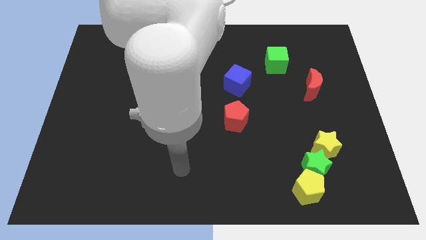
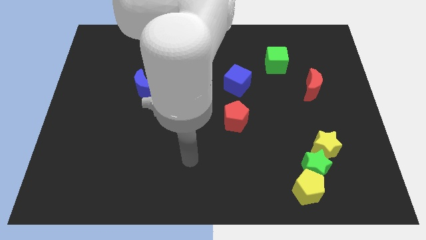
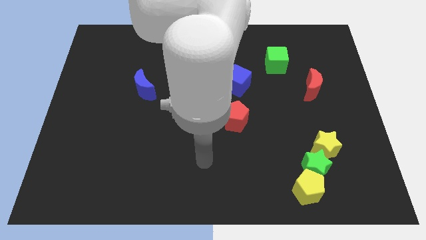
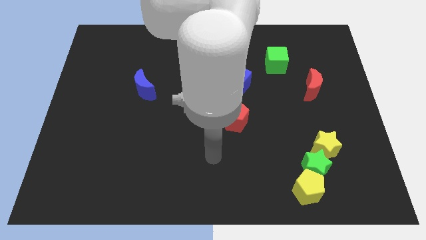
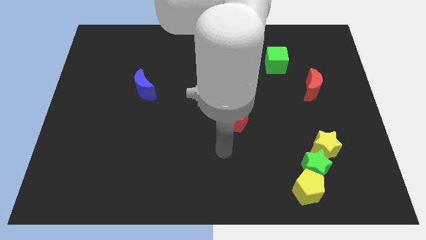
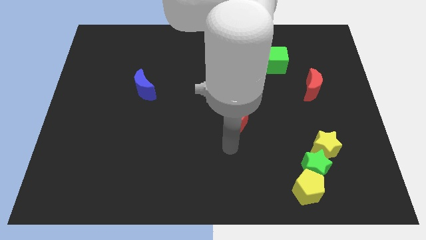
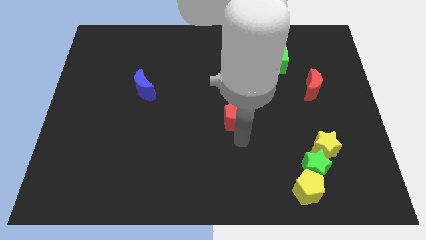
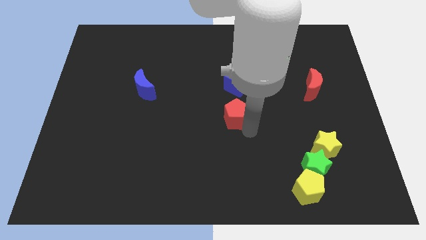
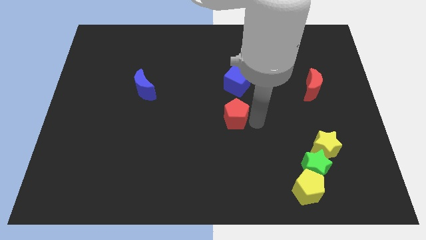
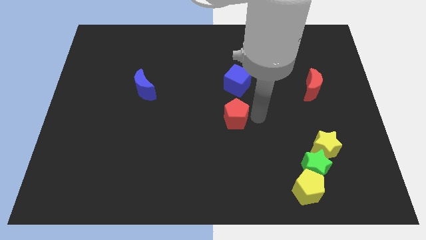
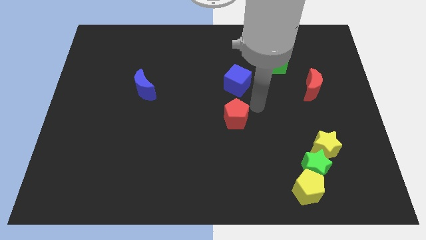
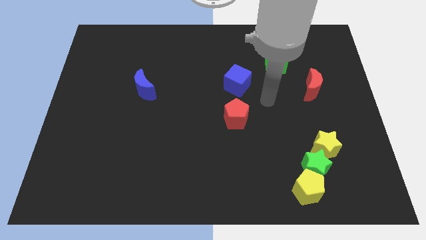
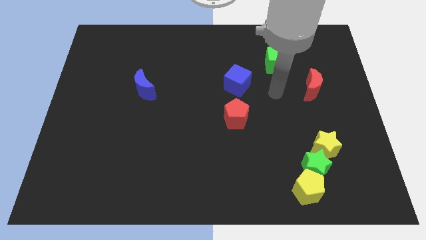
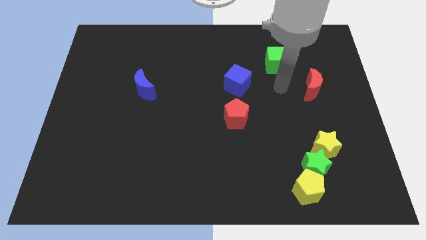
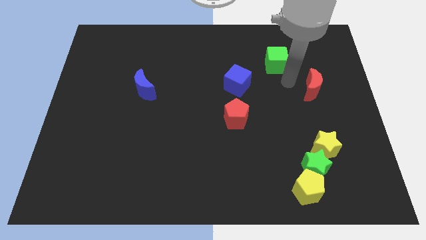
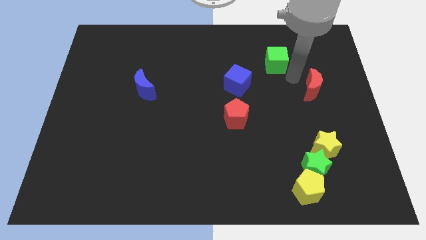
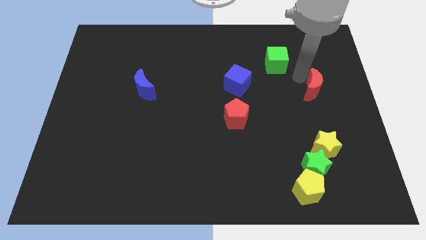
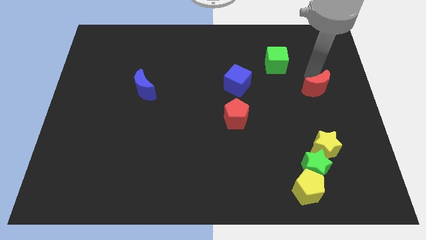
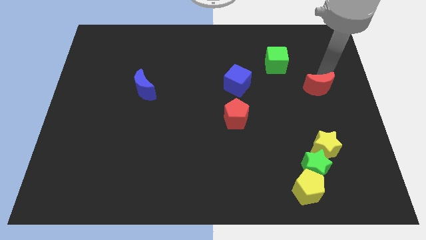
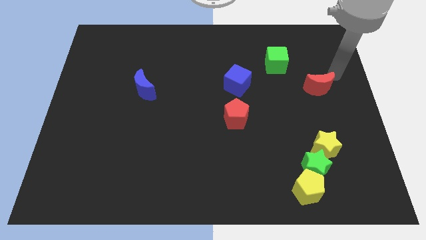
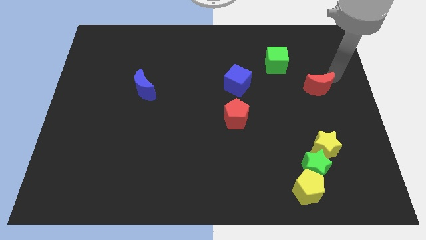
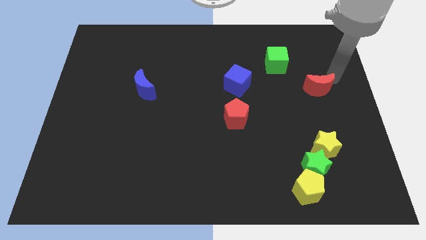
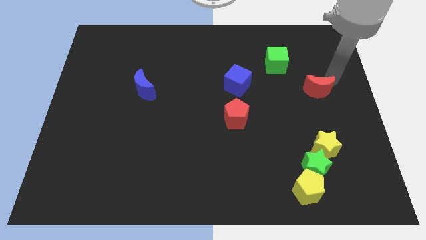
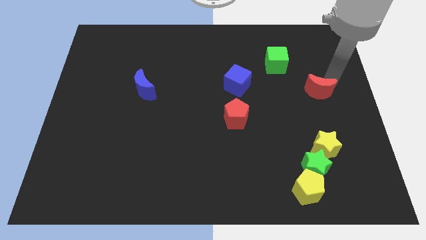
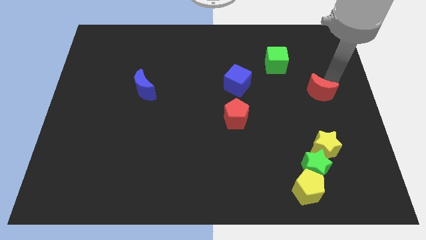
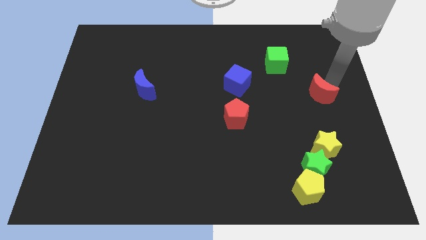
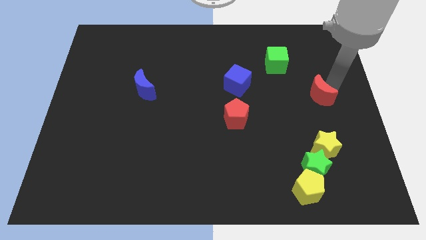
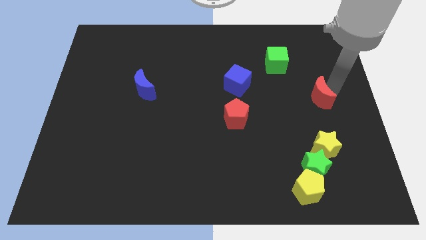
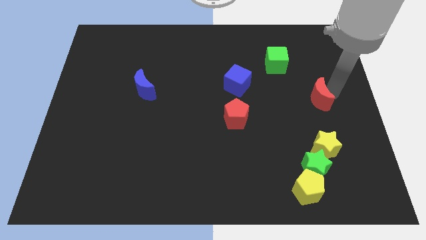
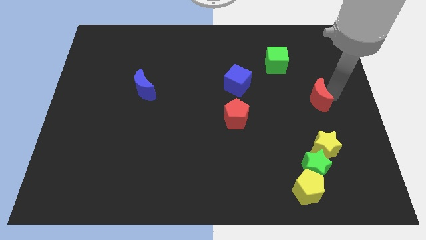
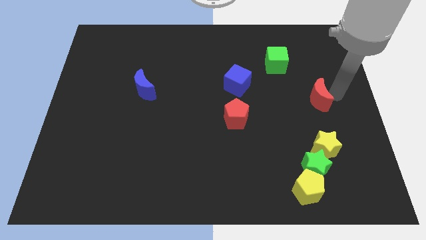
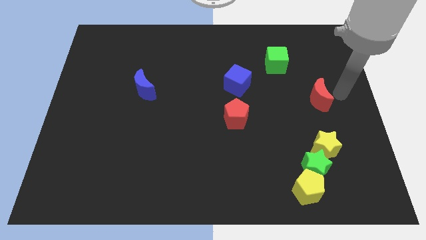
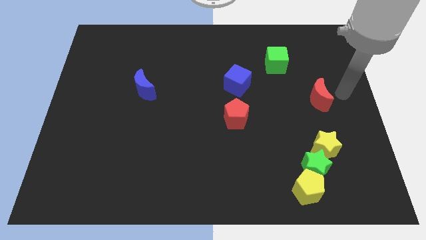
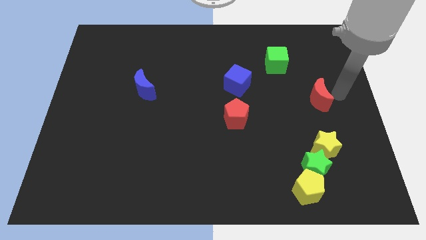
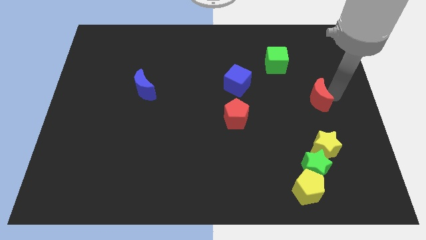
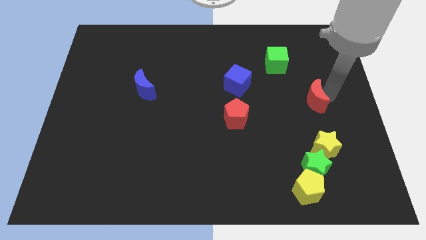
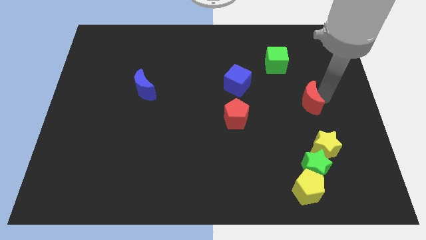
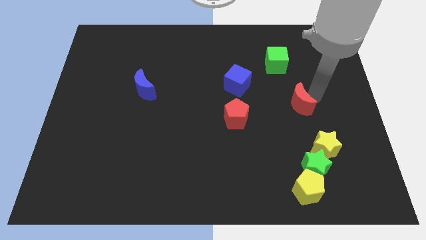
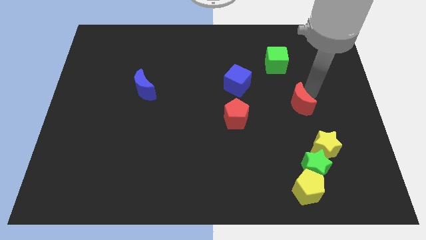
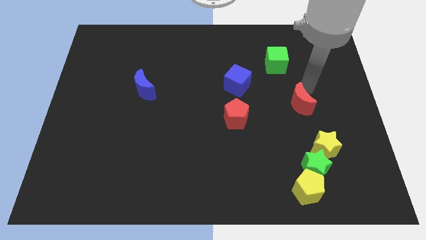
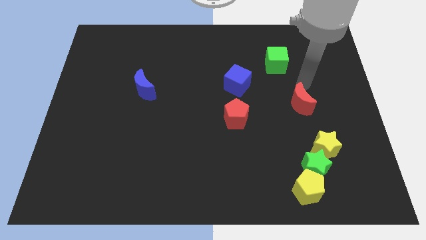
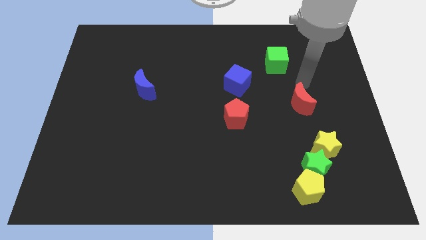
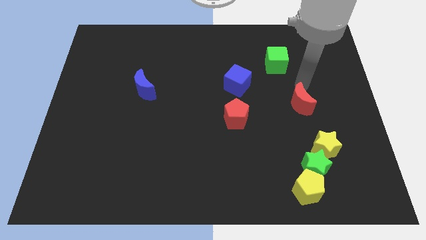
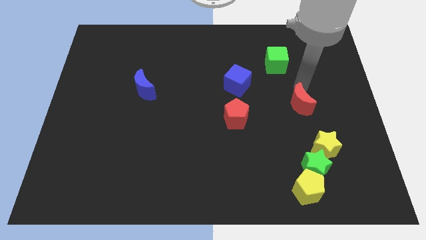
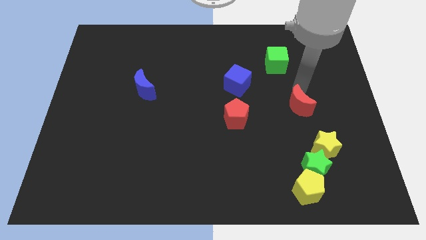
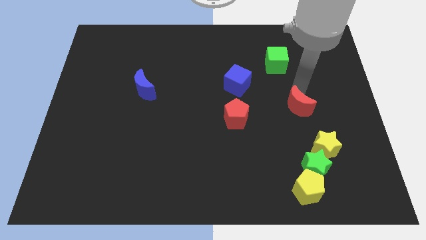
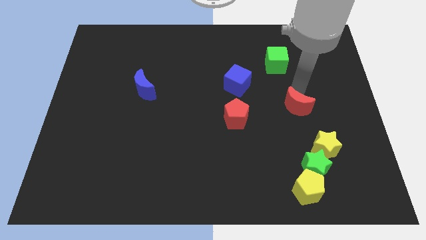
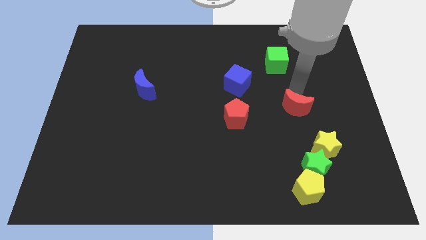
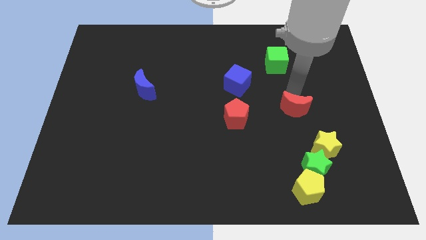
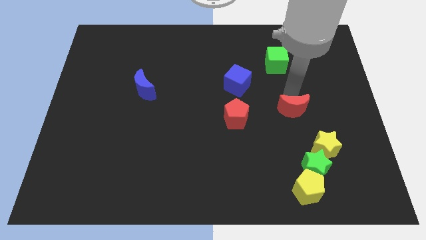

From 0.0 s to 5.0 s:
move the red moon diagonally up and to the left of the yellow star
